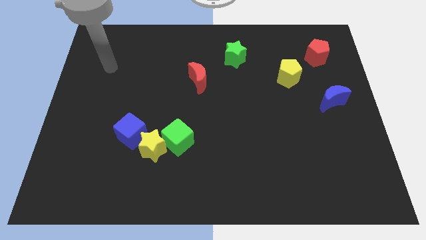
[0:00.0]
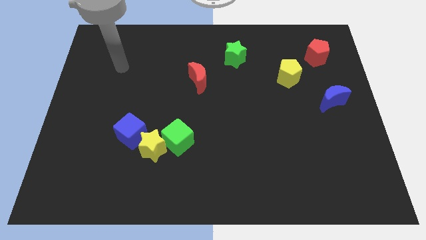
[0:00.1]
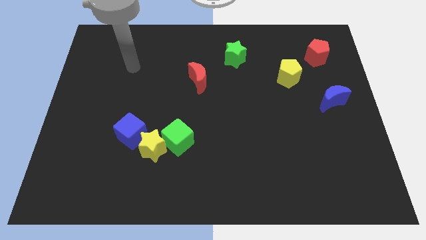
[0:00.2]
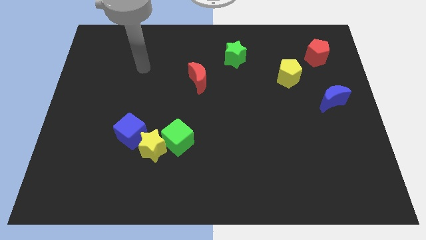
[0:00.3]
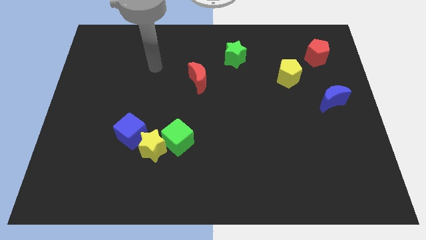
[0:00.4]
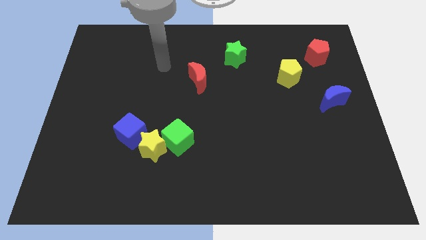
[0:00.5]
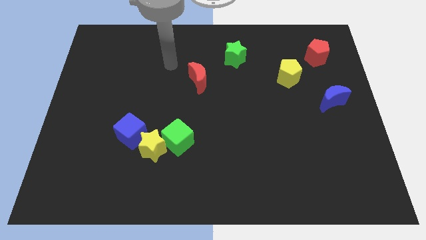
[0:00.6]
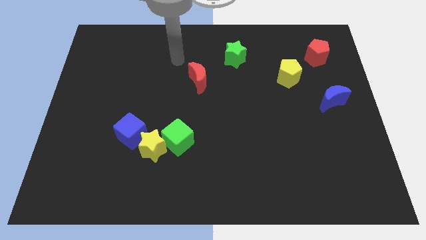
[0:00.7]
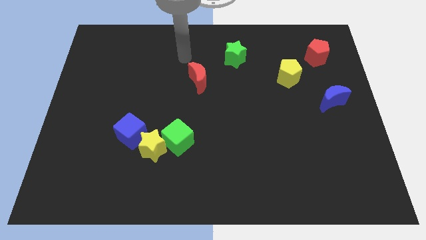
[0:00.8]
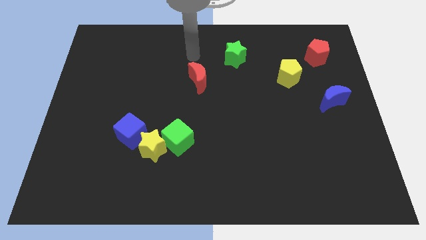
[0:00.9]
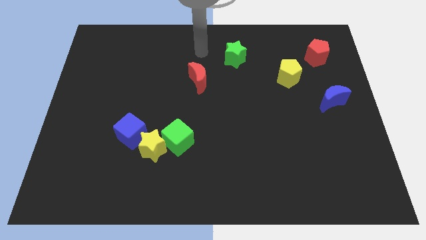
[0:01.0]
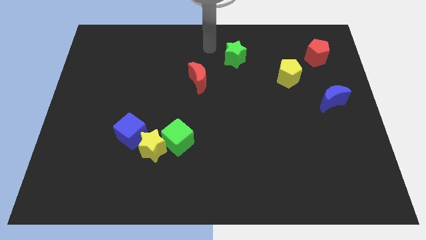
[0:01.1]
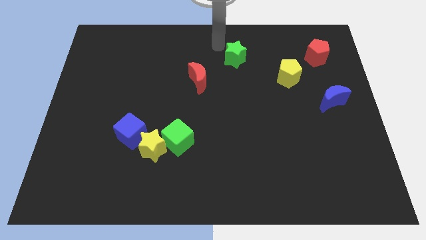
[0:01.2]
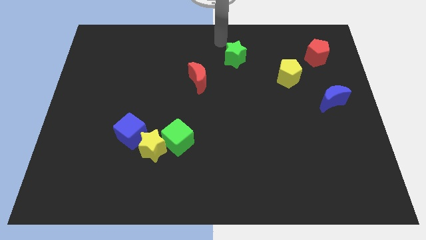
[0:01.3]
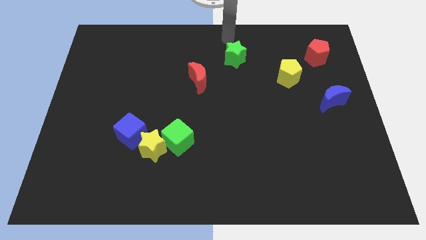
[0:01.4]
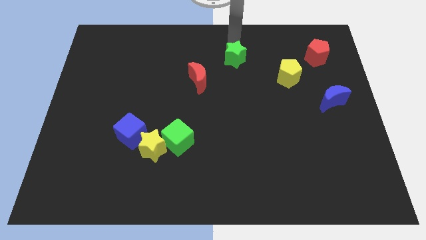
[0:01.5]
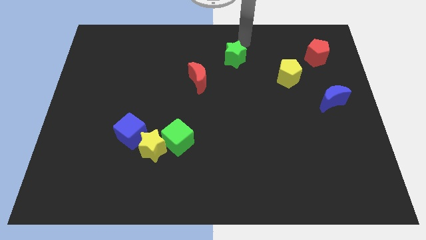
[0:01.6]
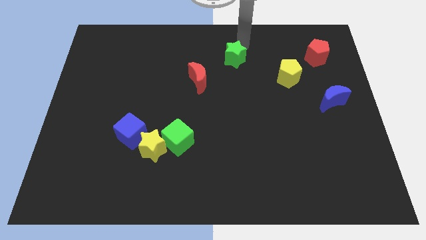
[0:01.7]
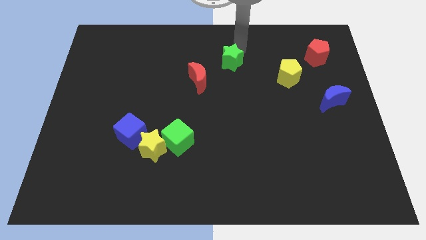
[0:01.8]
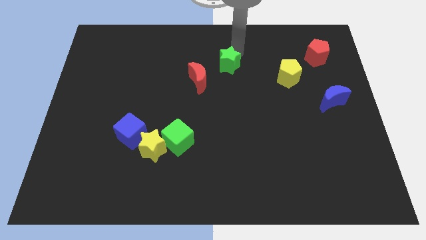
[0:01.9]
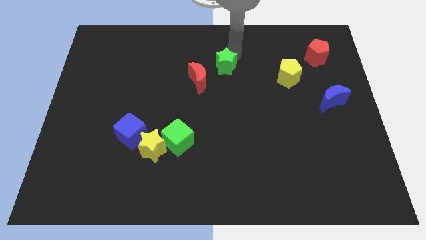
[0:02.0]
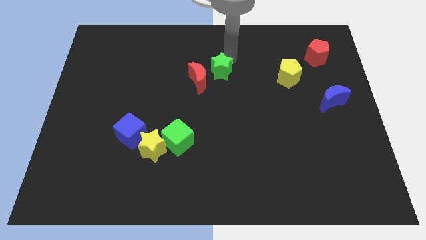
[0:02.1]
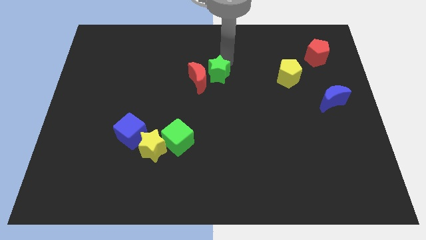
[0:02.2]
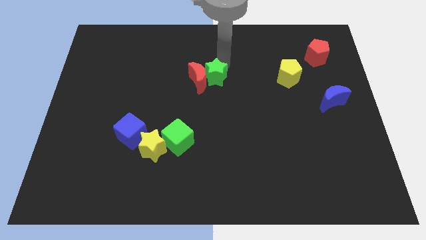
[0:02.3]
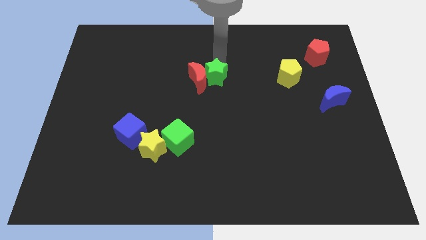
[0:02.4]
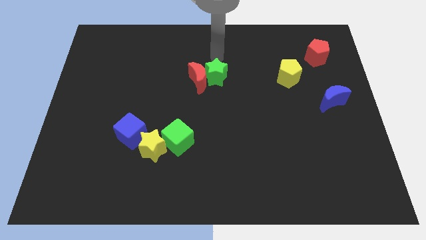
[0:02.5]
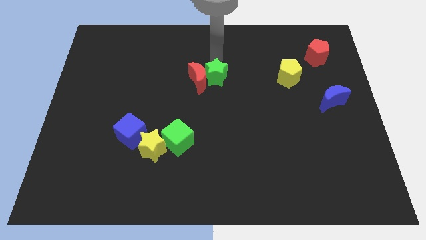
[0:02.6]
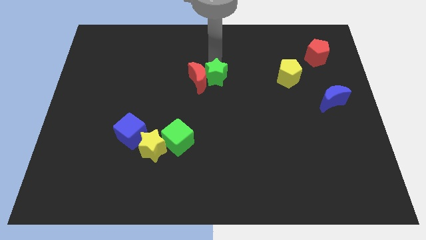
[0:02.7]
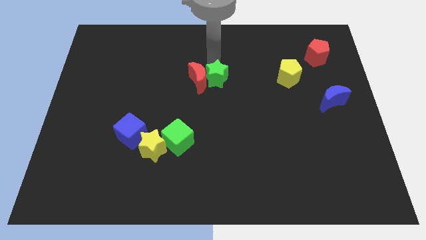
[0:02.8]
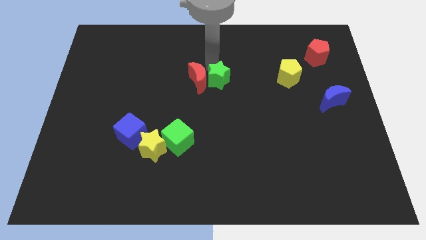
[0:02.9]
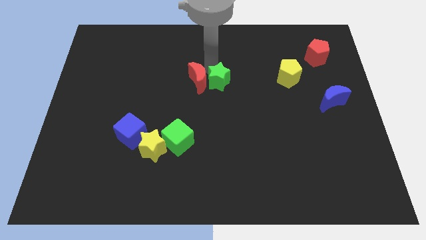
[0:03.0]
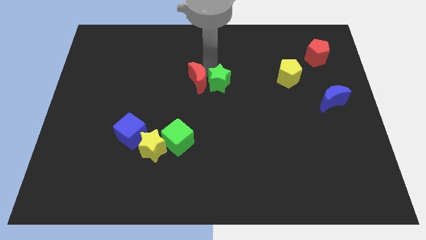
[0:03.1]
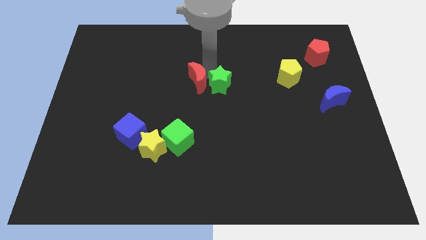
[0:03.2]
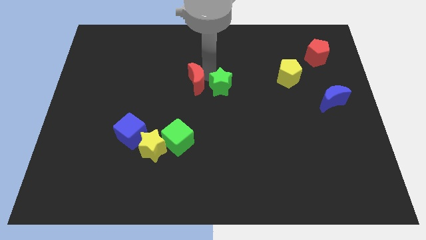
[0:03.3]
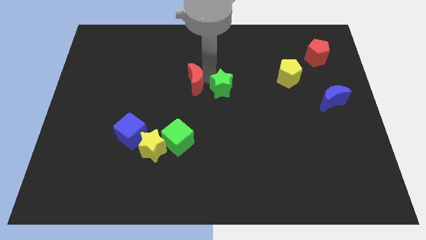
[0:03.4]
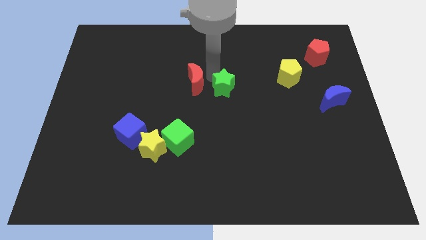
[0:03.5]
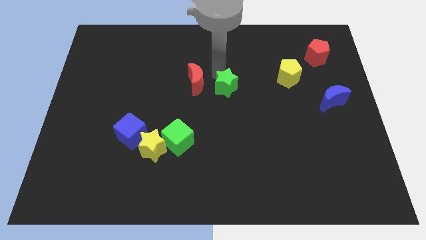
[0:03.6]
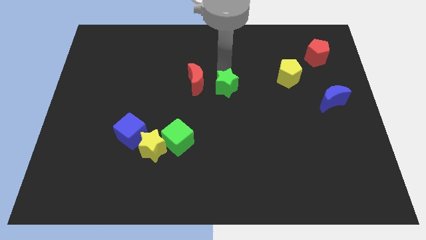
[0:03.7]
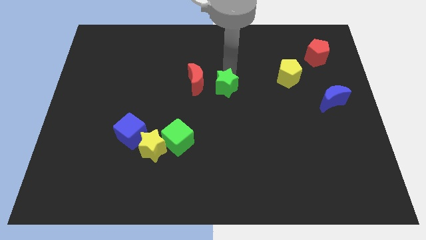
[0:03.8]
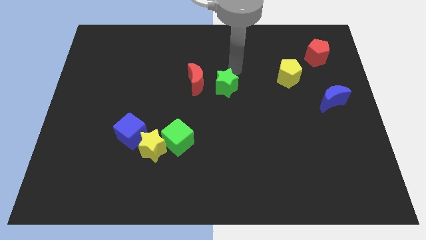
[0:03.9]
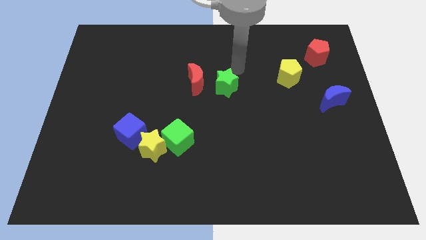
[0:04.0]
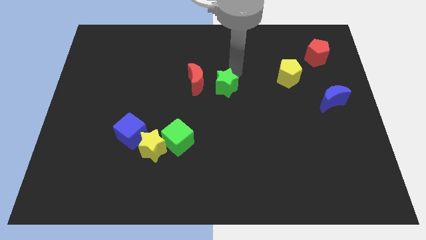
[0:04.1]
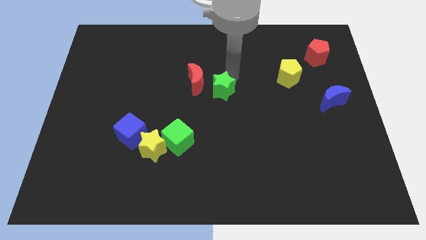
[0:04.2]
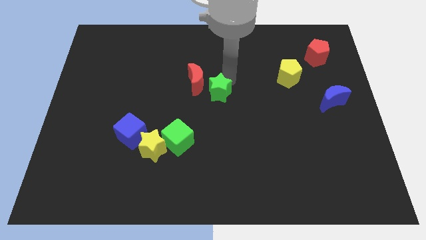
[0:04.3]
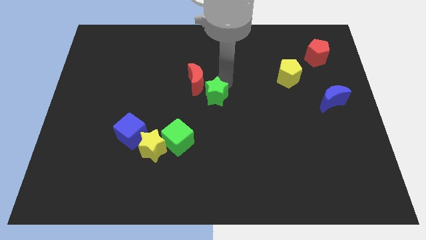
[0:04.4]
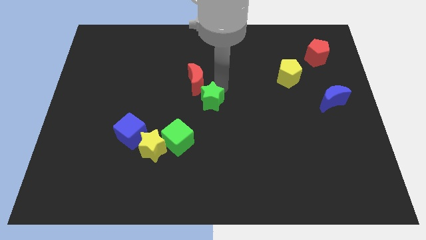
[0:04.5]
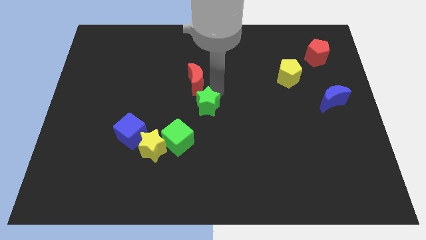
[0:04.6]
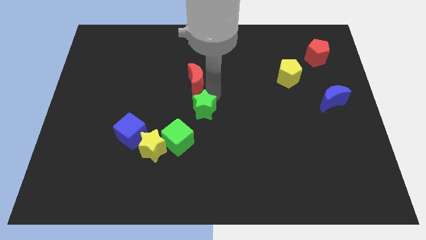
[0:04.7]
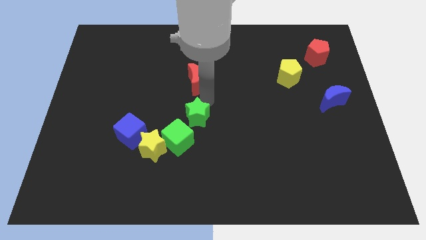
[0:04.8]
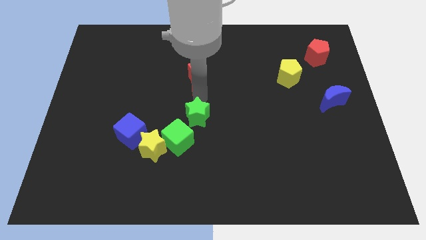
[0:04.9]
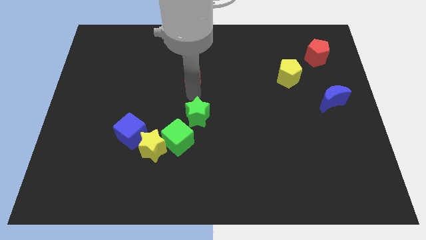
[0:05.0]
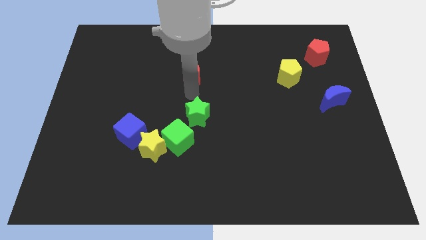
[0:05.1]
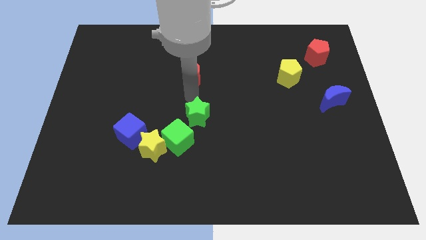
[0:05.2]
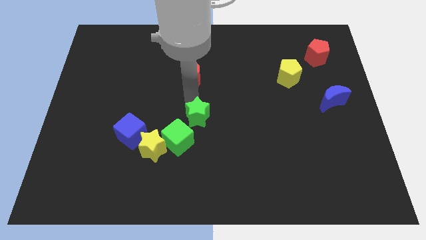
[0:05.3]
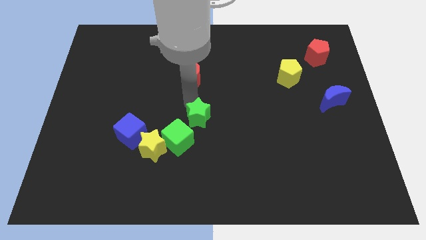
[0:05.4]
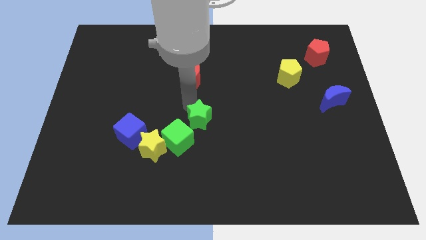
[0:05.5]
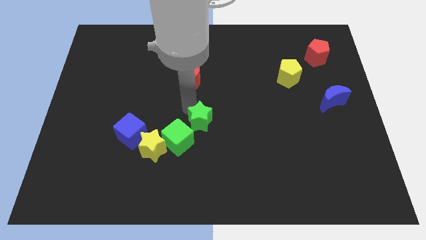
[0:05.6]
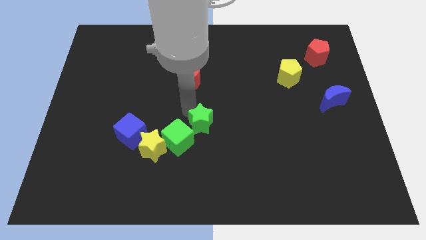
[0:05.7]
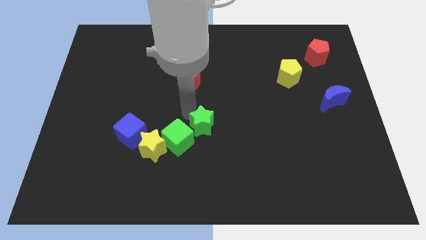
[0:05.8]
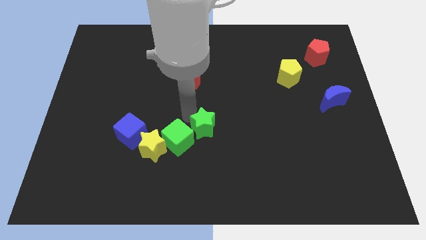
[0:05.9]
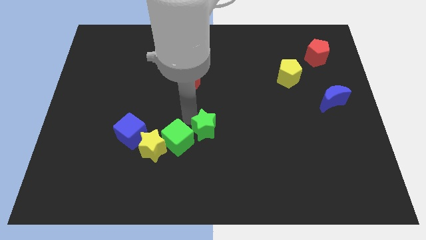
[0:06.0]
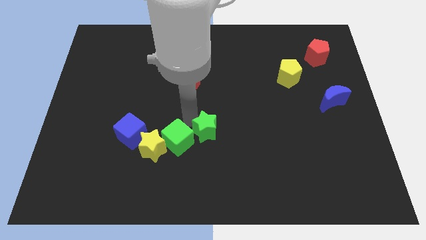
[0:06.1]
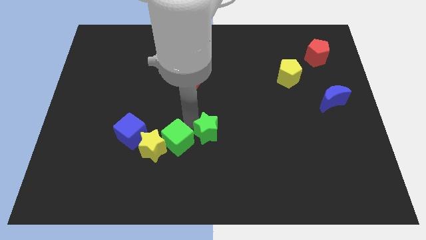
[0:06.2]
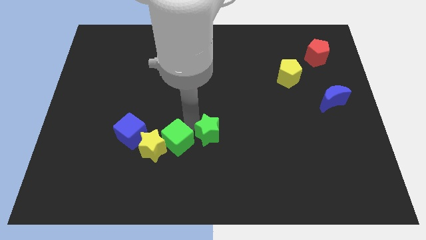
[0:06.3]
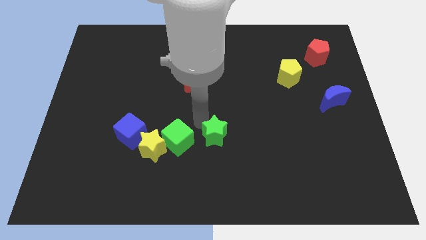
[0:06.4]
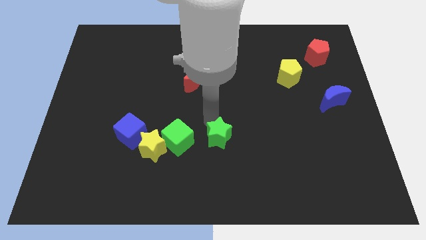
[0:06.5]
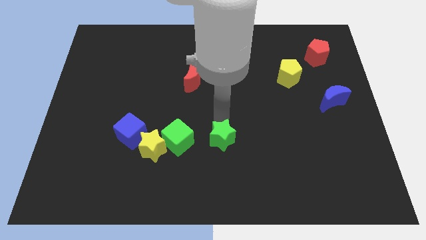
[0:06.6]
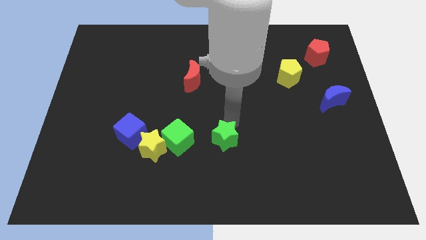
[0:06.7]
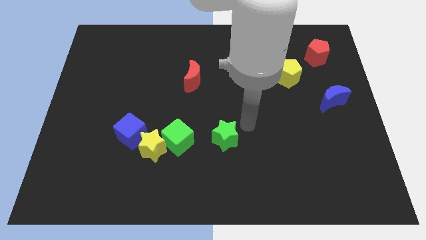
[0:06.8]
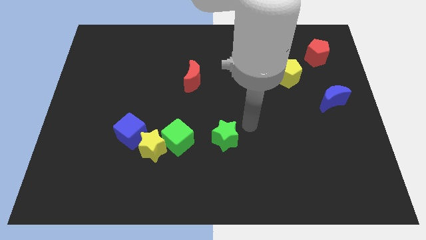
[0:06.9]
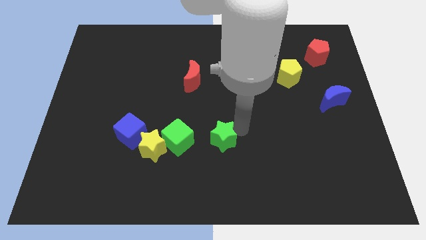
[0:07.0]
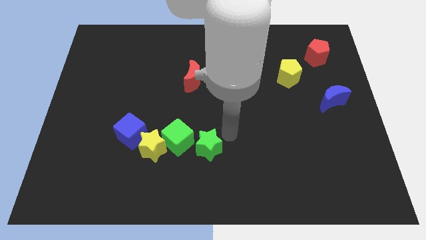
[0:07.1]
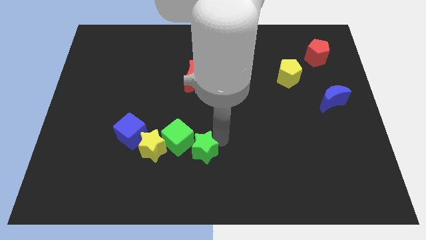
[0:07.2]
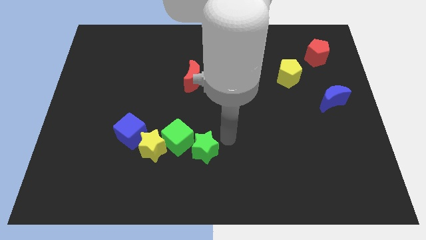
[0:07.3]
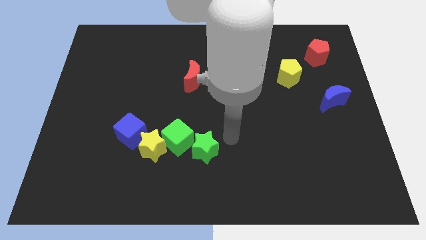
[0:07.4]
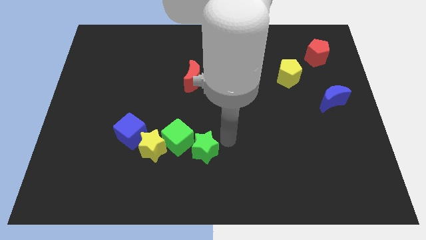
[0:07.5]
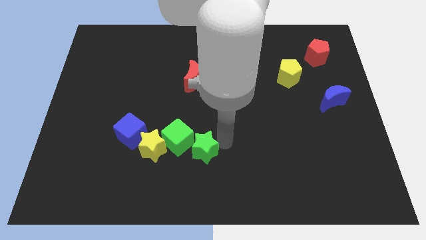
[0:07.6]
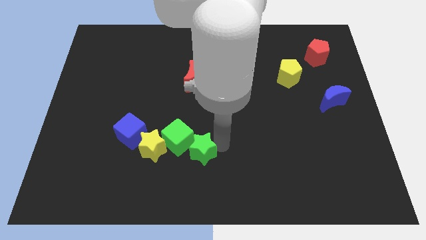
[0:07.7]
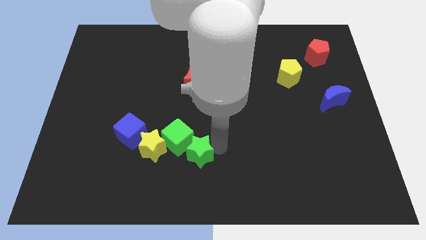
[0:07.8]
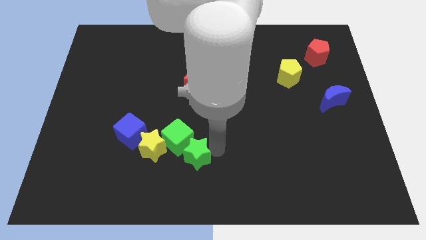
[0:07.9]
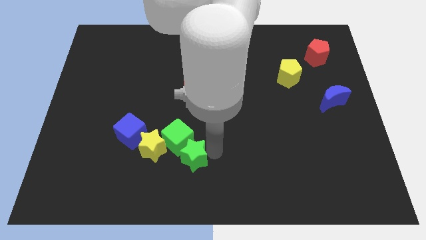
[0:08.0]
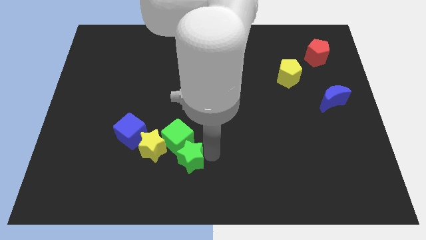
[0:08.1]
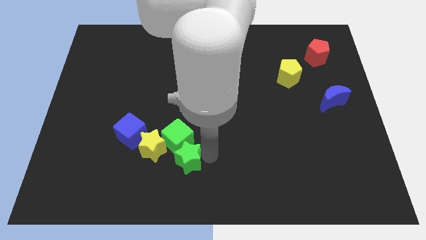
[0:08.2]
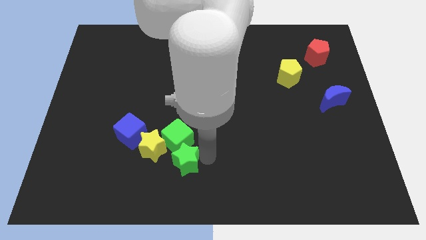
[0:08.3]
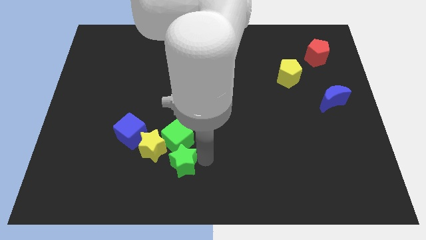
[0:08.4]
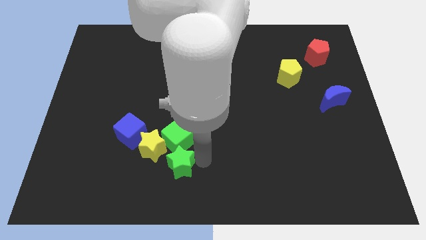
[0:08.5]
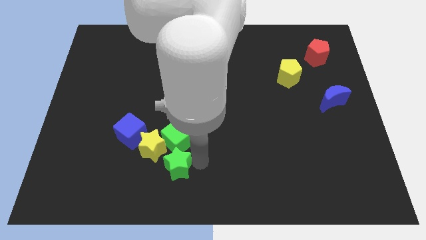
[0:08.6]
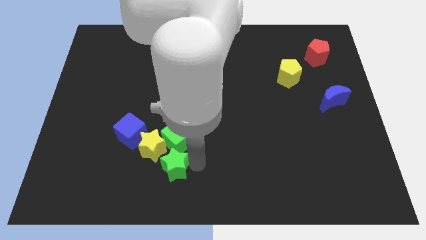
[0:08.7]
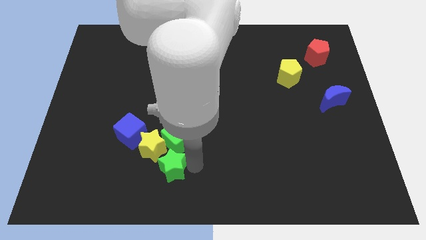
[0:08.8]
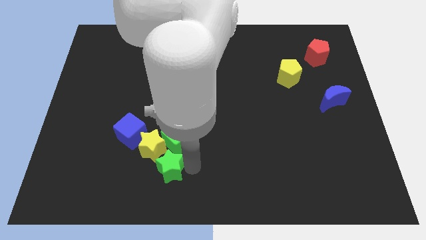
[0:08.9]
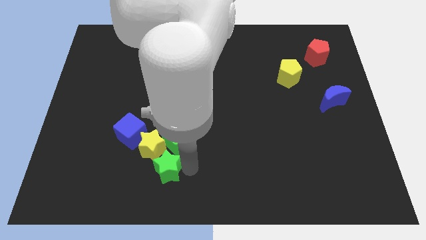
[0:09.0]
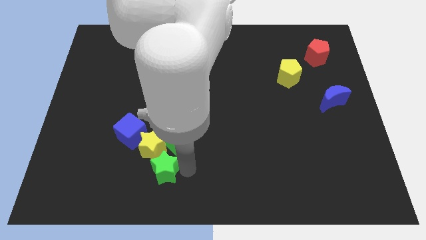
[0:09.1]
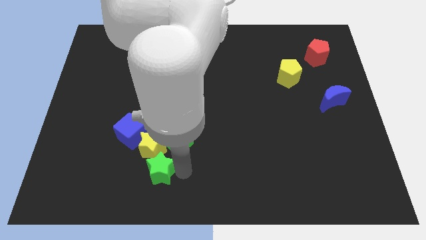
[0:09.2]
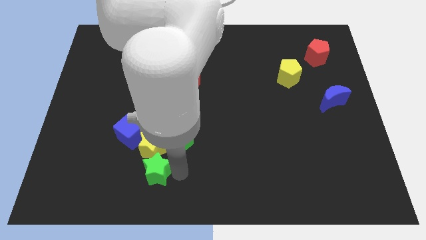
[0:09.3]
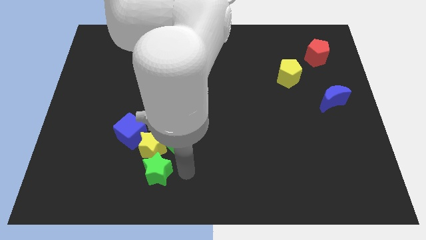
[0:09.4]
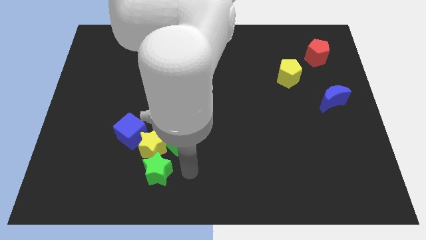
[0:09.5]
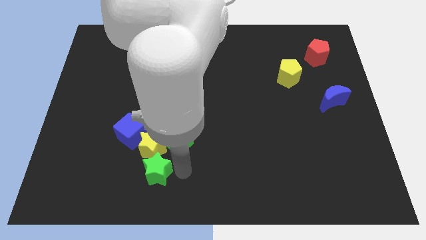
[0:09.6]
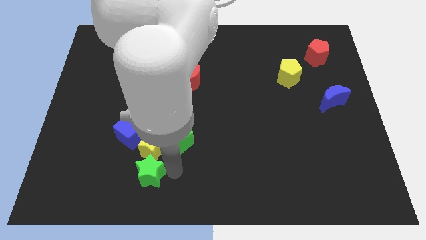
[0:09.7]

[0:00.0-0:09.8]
put the green star to the bottom left side of the yellow star
